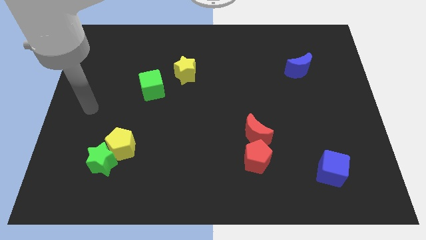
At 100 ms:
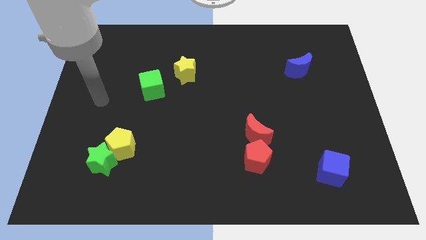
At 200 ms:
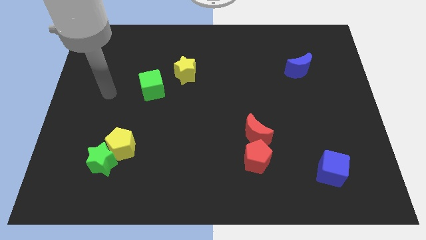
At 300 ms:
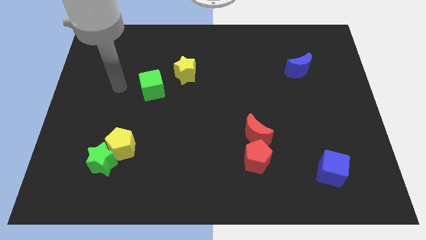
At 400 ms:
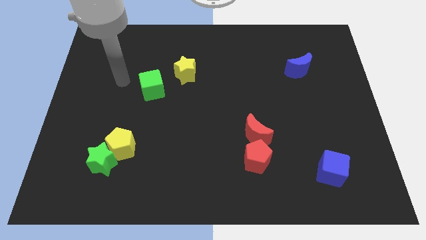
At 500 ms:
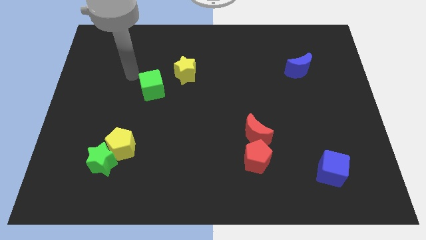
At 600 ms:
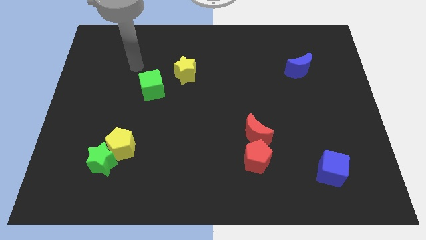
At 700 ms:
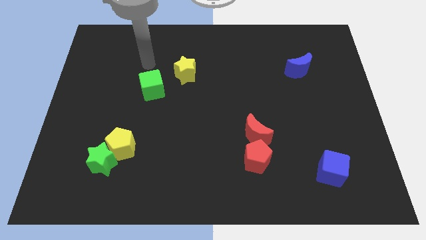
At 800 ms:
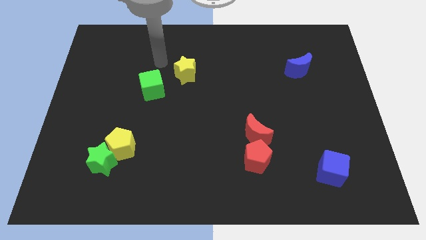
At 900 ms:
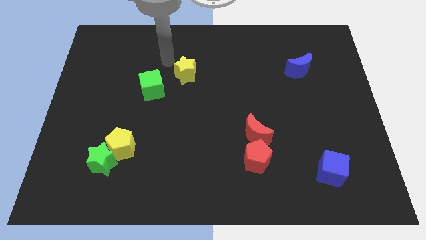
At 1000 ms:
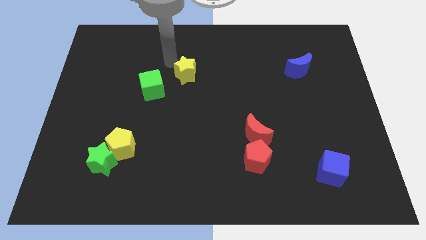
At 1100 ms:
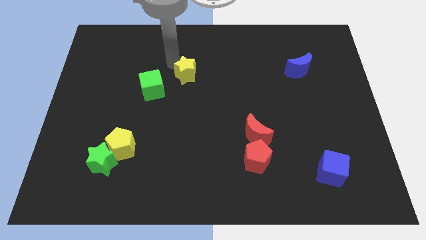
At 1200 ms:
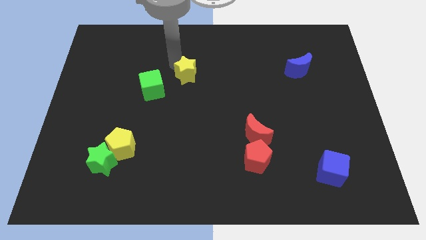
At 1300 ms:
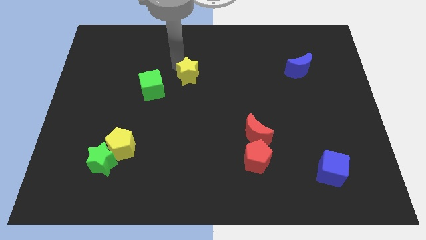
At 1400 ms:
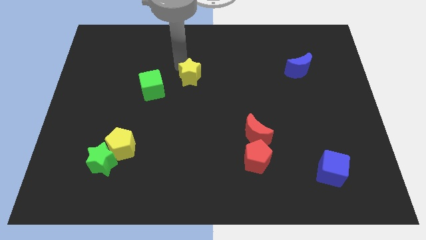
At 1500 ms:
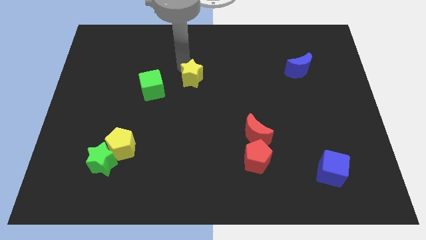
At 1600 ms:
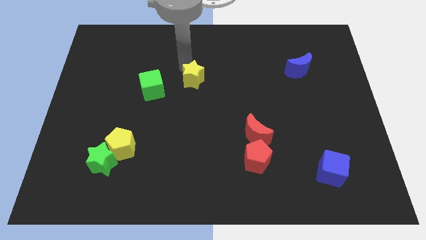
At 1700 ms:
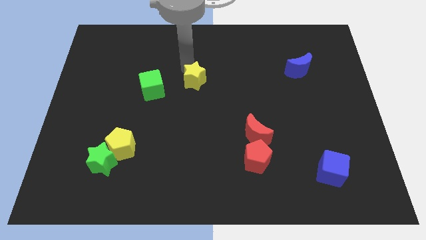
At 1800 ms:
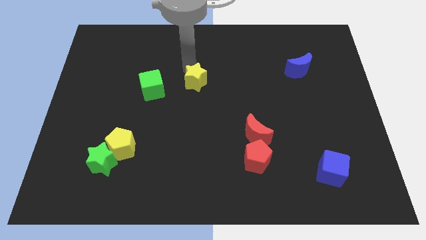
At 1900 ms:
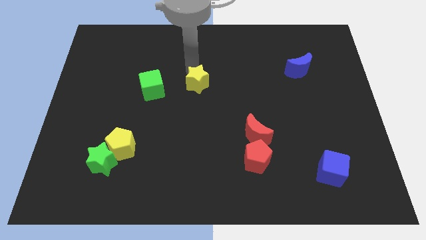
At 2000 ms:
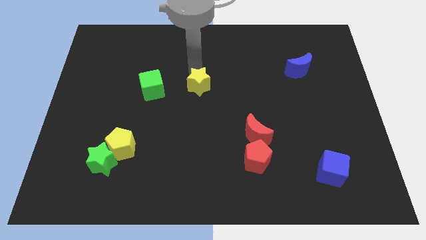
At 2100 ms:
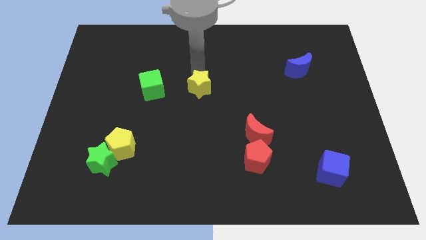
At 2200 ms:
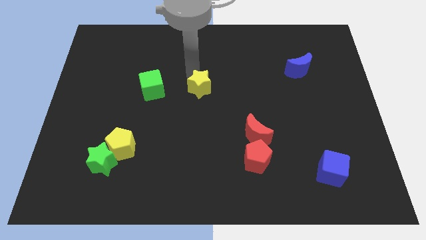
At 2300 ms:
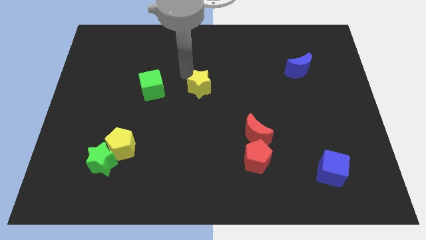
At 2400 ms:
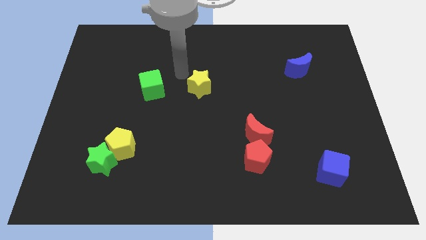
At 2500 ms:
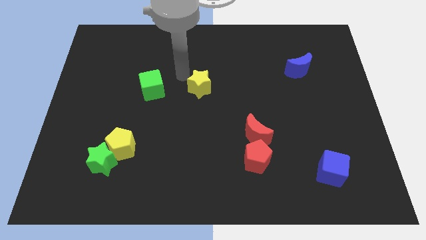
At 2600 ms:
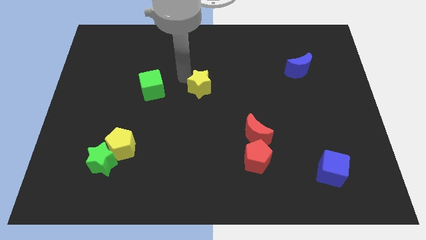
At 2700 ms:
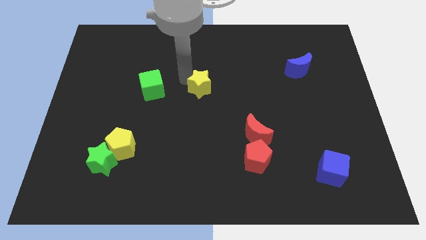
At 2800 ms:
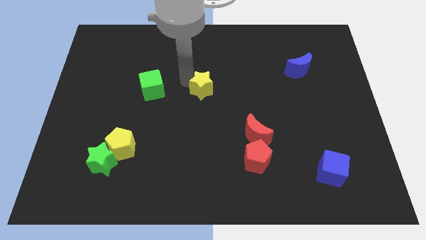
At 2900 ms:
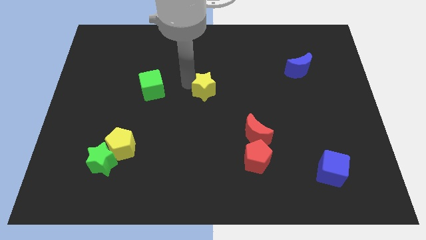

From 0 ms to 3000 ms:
slide the yellow star down and to the right a little

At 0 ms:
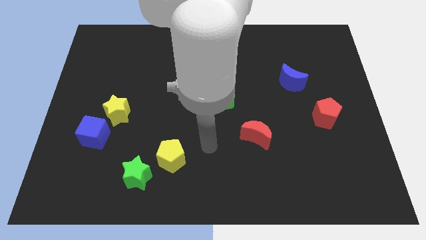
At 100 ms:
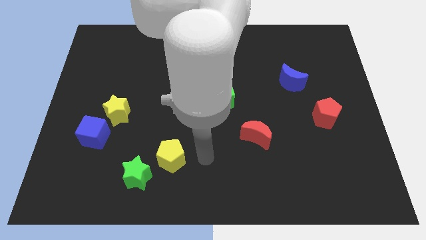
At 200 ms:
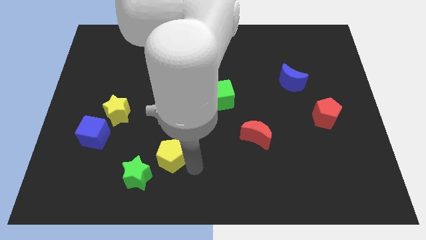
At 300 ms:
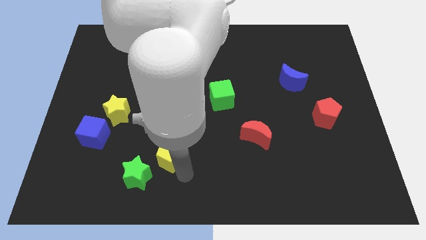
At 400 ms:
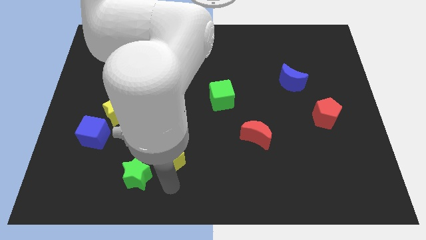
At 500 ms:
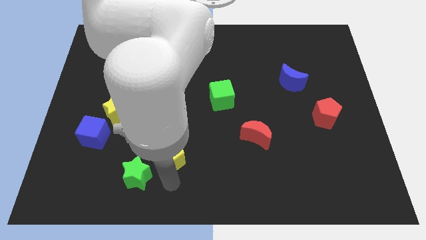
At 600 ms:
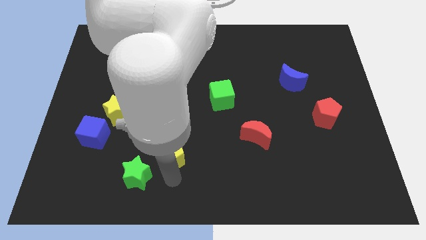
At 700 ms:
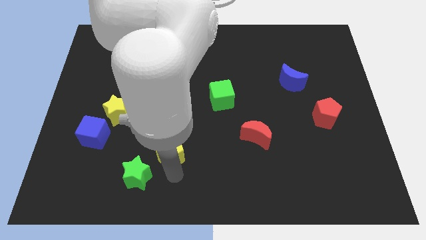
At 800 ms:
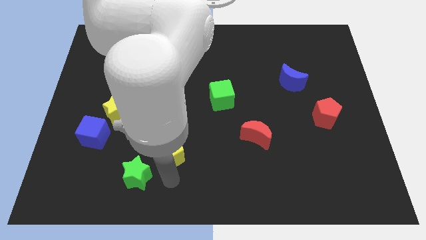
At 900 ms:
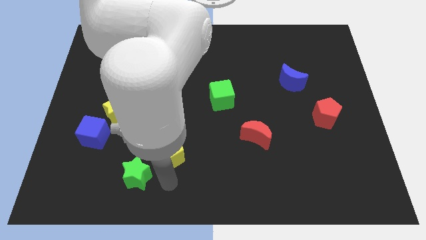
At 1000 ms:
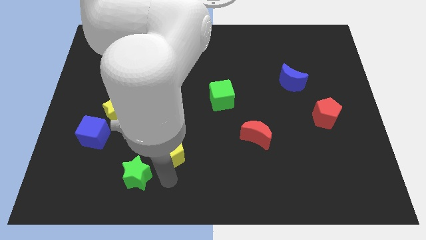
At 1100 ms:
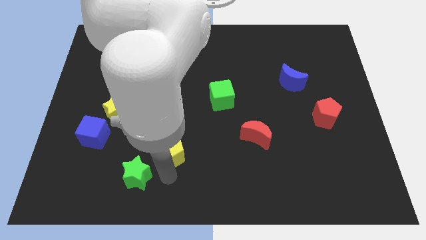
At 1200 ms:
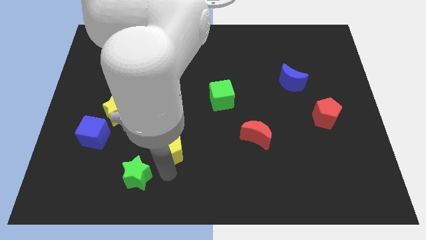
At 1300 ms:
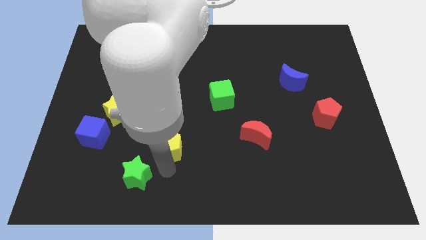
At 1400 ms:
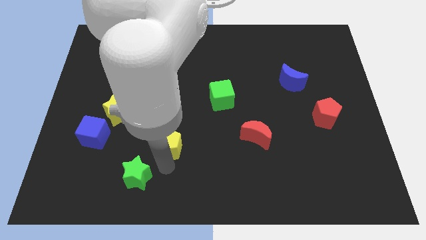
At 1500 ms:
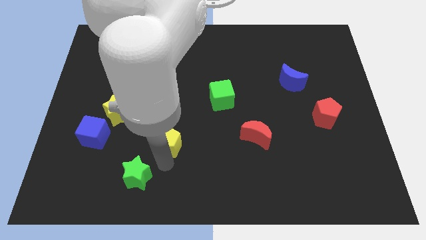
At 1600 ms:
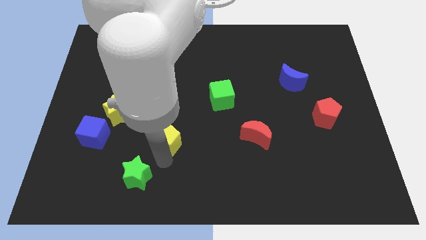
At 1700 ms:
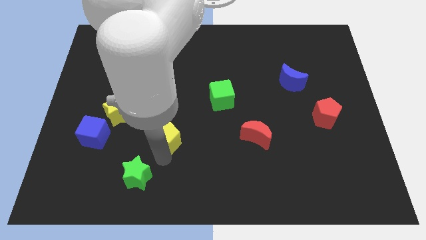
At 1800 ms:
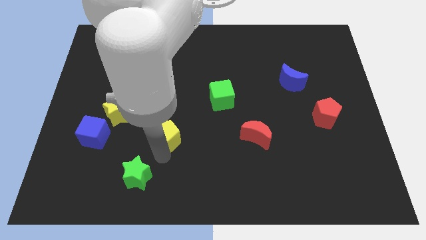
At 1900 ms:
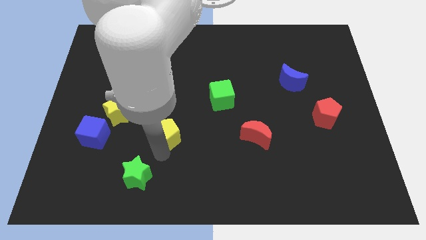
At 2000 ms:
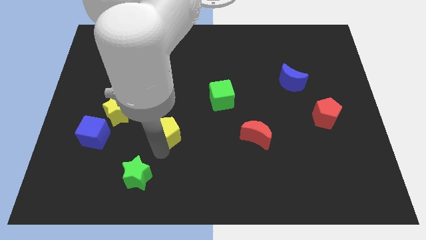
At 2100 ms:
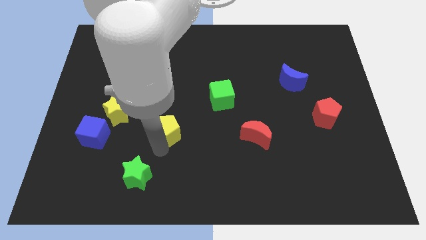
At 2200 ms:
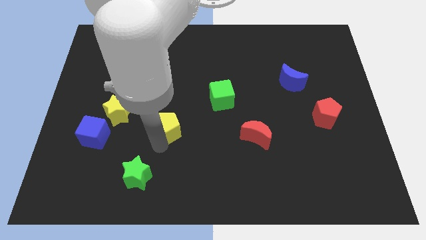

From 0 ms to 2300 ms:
push the yellow pentagon up a little

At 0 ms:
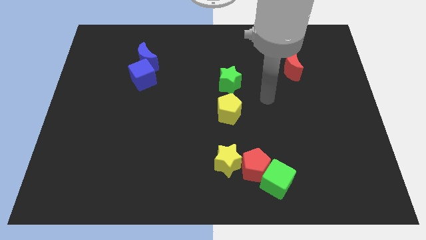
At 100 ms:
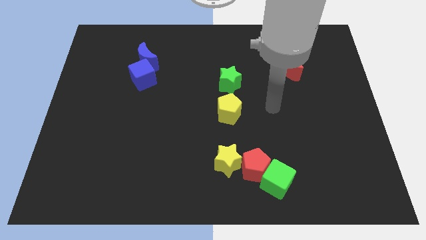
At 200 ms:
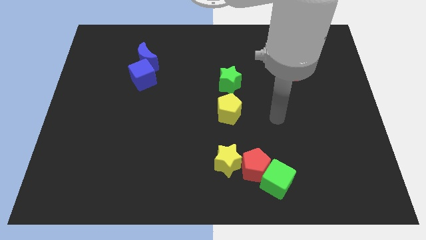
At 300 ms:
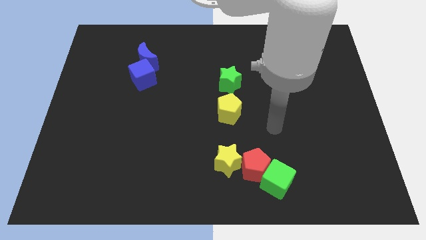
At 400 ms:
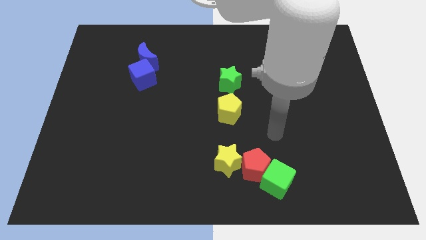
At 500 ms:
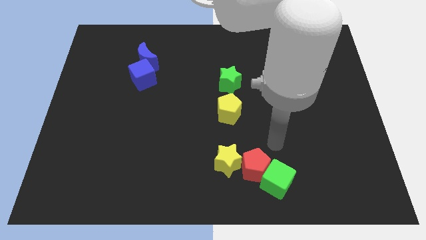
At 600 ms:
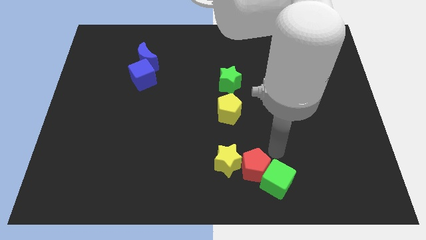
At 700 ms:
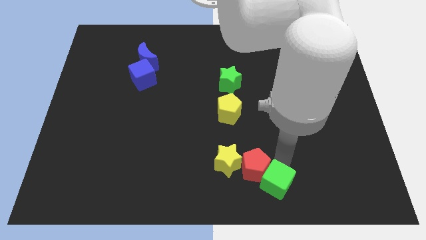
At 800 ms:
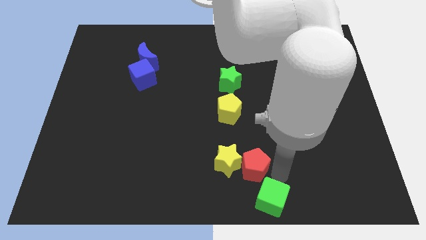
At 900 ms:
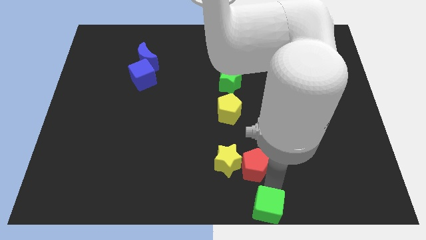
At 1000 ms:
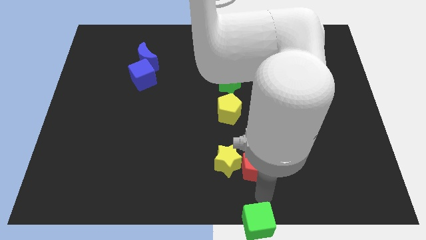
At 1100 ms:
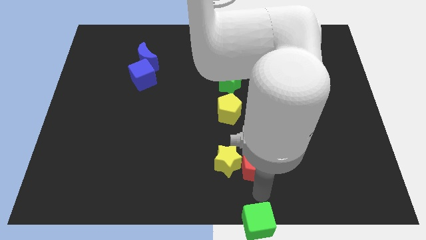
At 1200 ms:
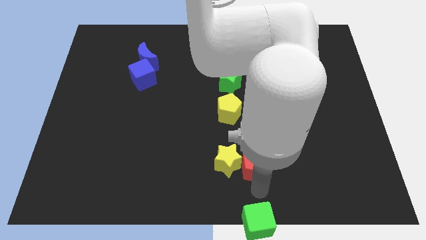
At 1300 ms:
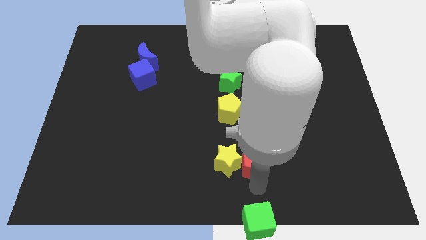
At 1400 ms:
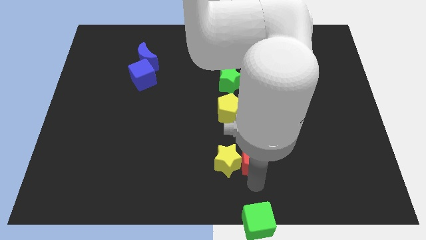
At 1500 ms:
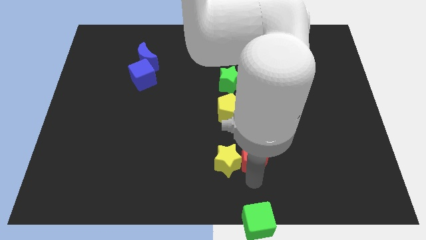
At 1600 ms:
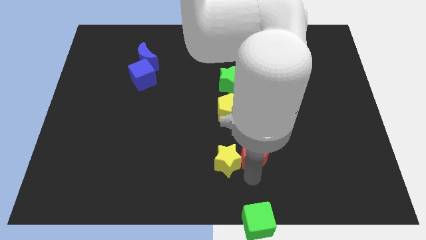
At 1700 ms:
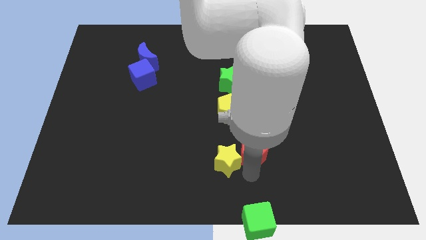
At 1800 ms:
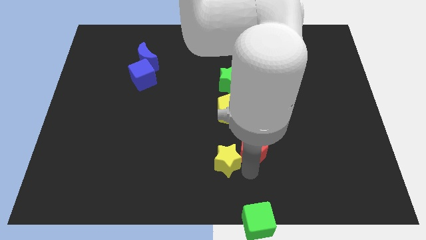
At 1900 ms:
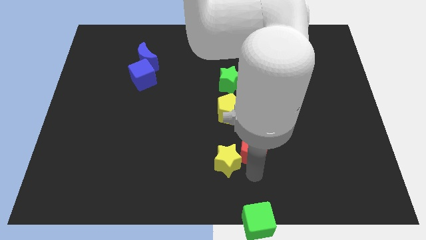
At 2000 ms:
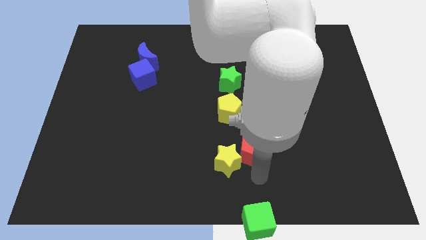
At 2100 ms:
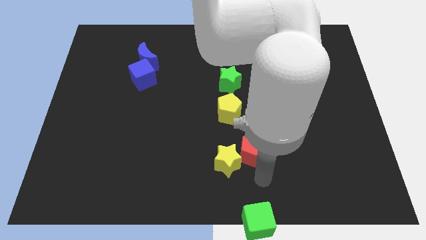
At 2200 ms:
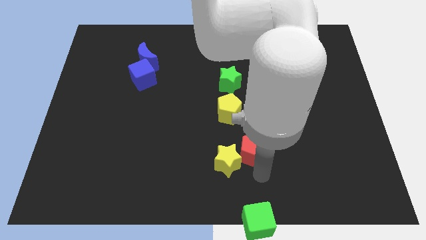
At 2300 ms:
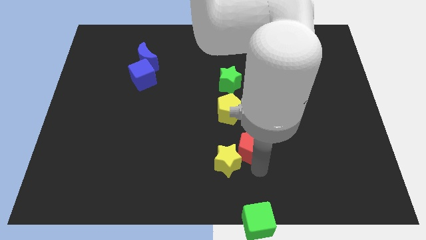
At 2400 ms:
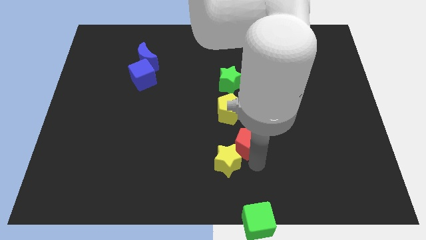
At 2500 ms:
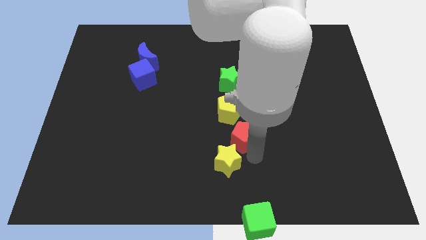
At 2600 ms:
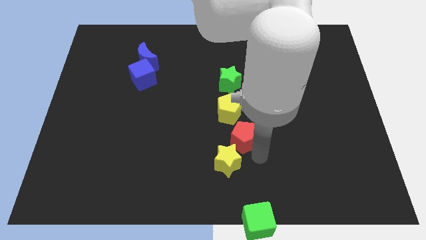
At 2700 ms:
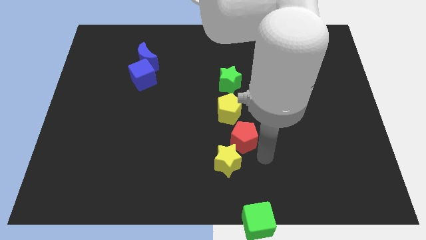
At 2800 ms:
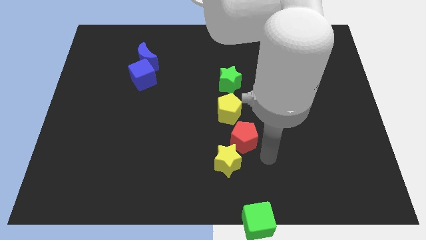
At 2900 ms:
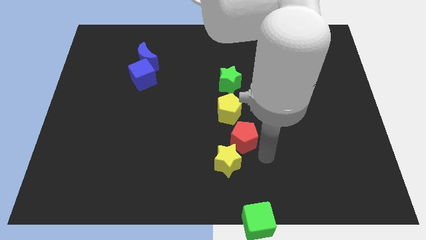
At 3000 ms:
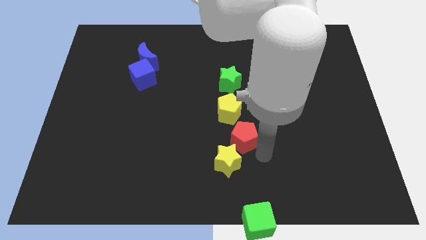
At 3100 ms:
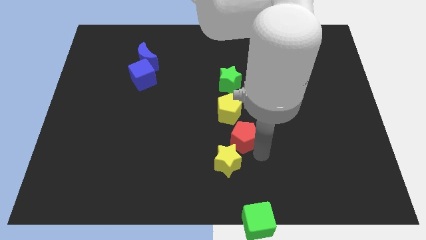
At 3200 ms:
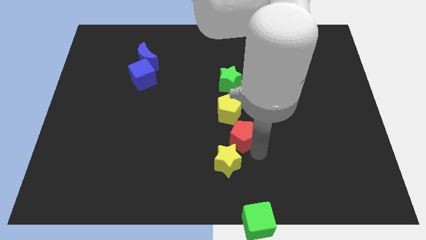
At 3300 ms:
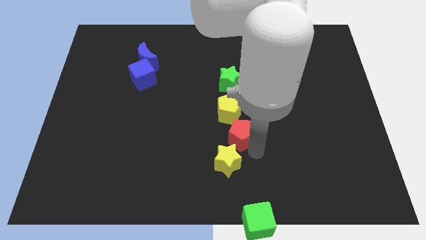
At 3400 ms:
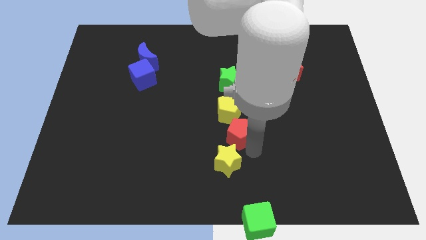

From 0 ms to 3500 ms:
slide the red pentagon a little bit upwards and to the left diagonally
